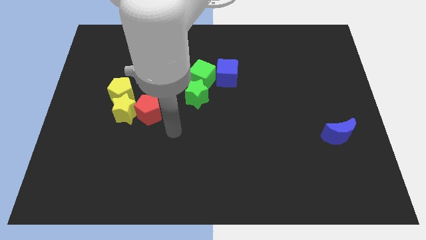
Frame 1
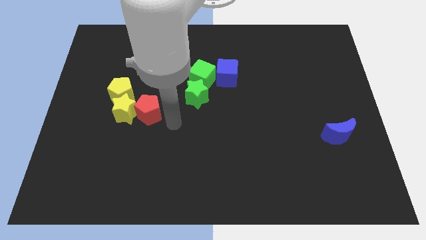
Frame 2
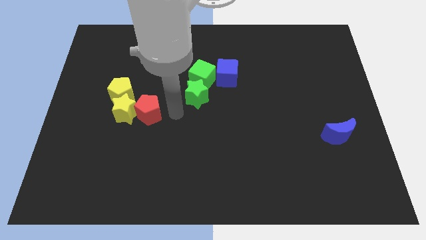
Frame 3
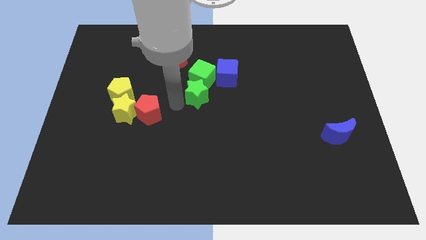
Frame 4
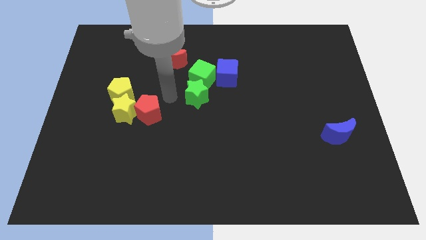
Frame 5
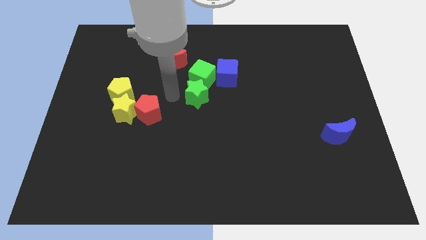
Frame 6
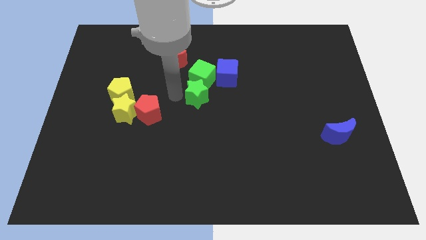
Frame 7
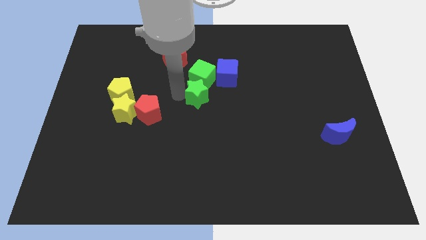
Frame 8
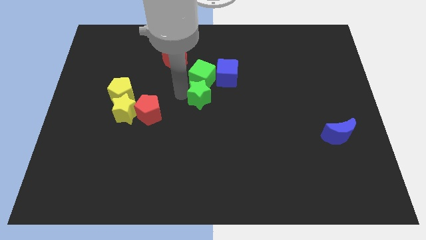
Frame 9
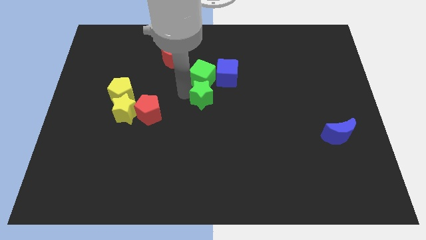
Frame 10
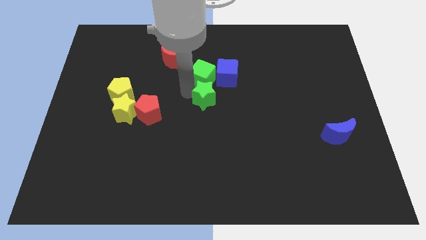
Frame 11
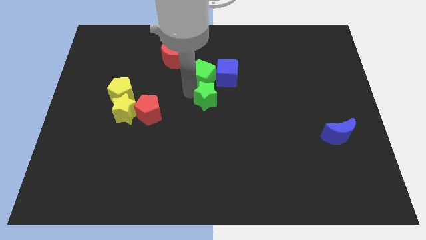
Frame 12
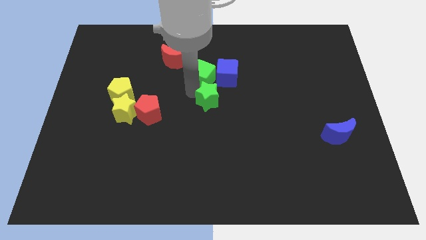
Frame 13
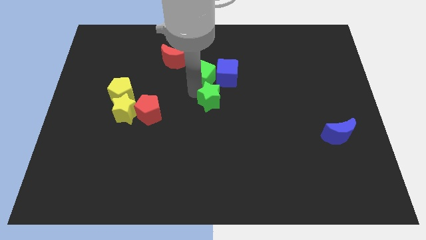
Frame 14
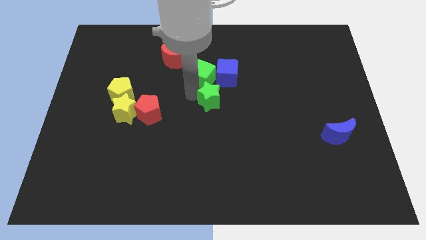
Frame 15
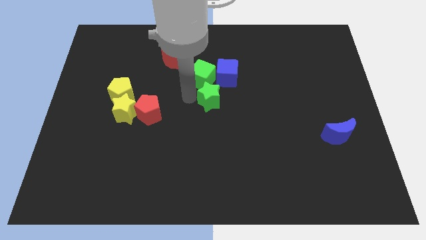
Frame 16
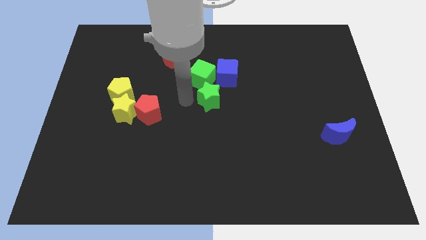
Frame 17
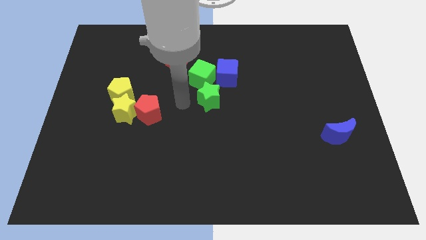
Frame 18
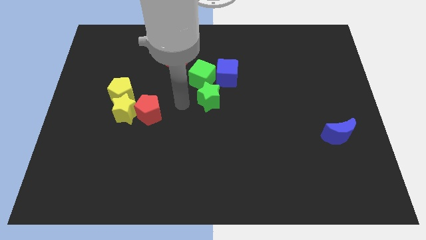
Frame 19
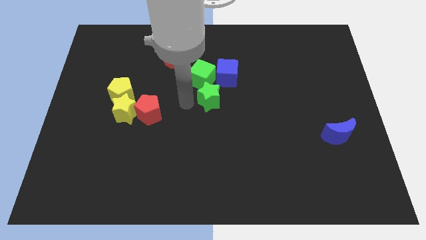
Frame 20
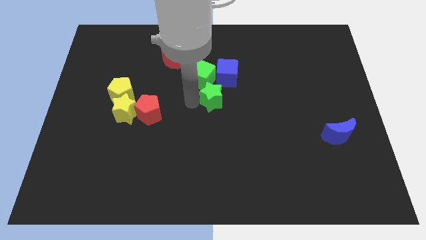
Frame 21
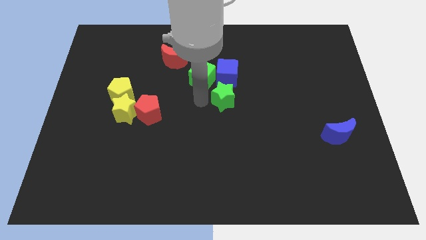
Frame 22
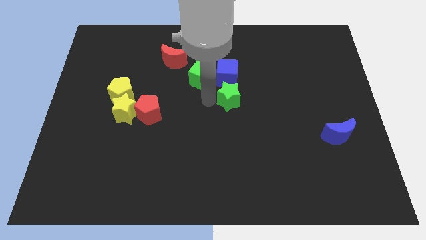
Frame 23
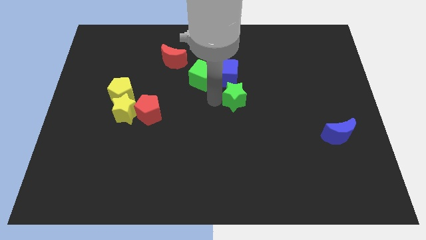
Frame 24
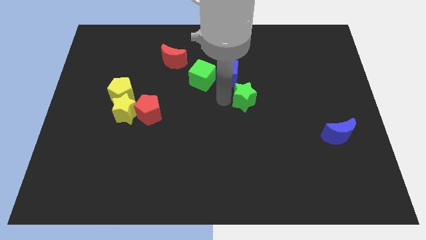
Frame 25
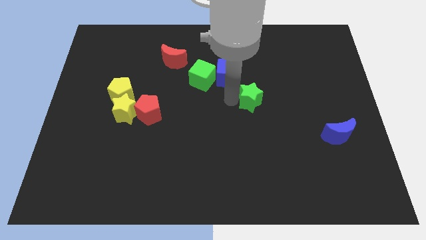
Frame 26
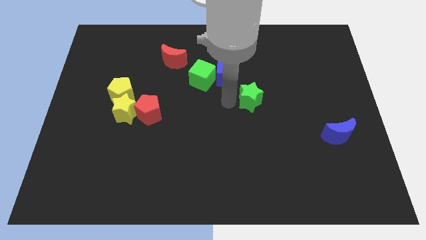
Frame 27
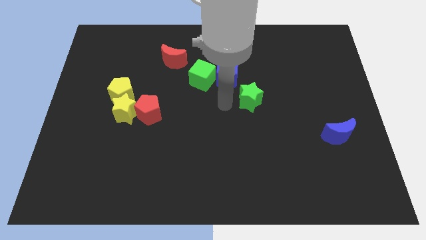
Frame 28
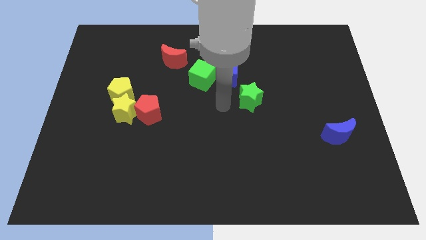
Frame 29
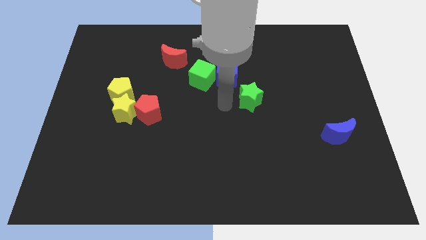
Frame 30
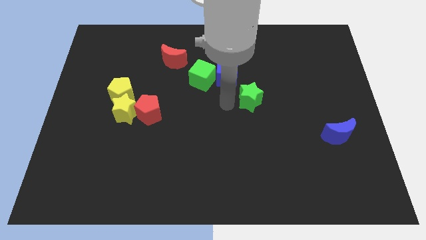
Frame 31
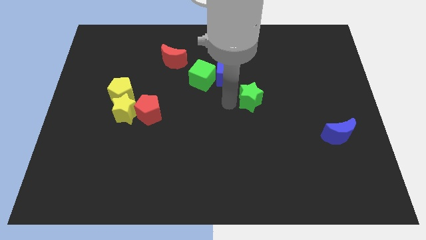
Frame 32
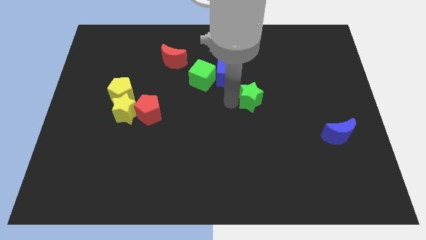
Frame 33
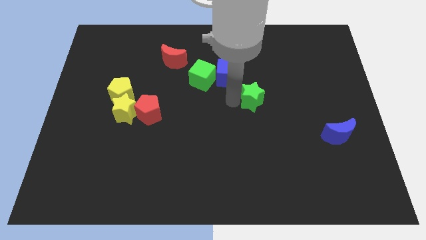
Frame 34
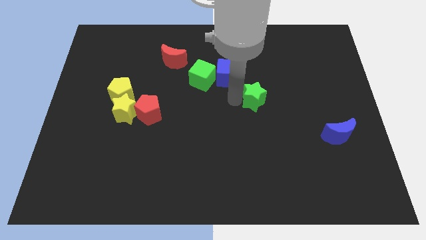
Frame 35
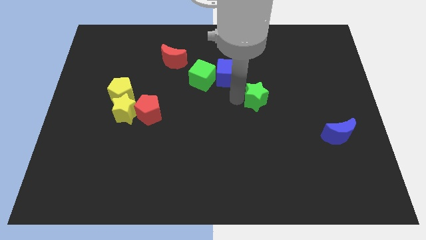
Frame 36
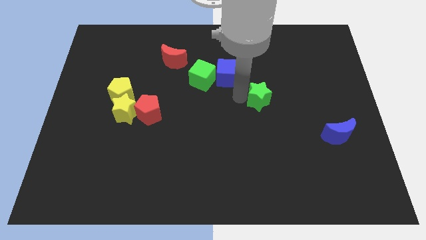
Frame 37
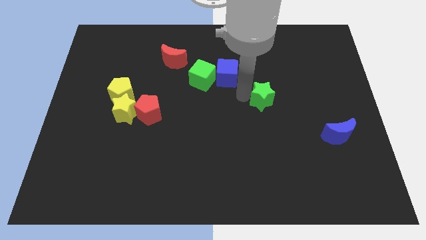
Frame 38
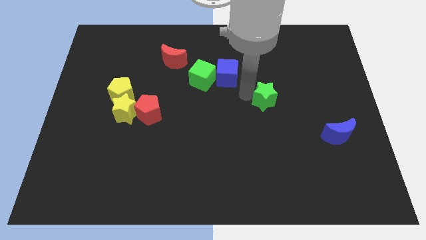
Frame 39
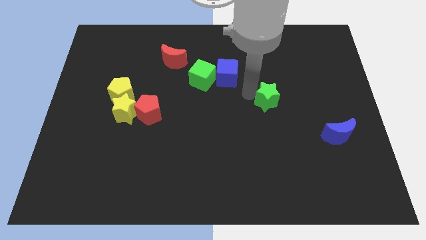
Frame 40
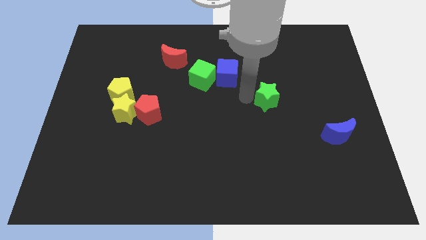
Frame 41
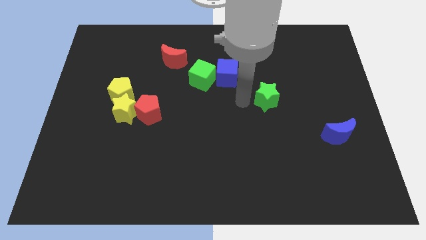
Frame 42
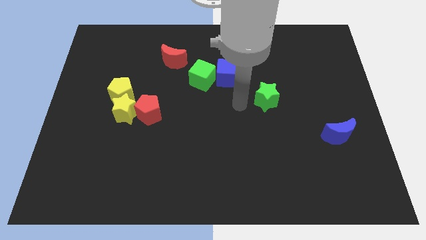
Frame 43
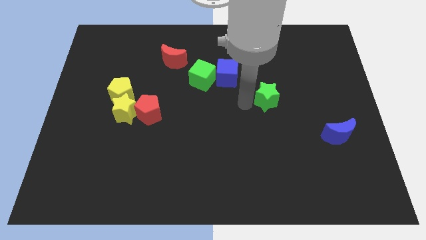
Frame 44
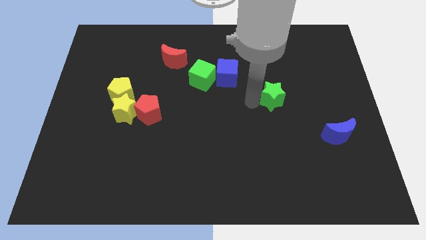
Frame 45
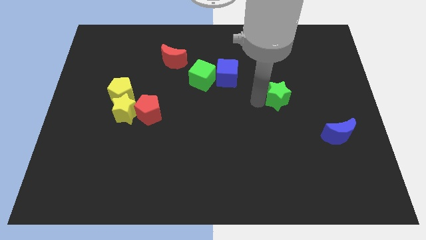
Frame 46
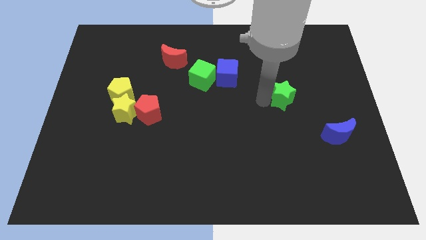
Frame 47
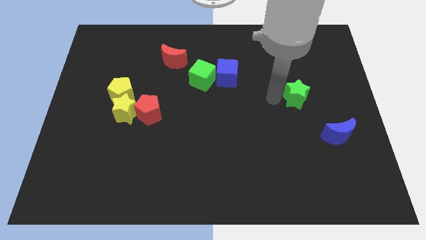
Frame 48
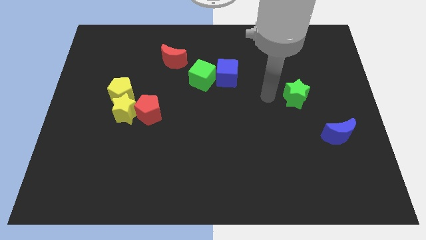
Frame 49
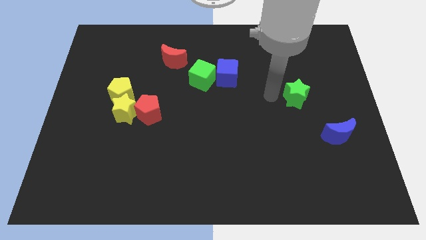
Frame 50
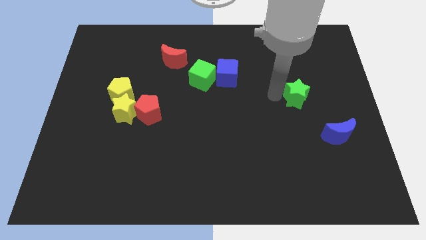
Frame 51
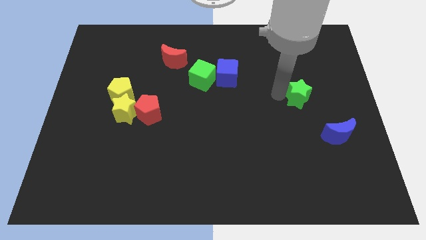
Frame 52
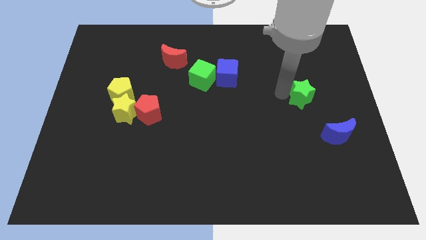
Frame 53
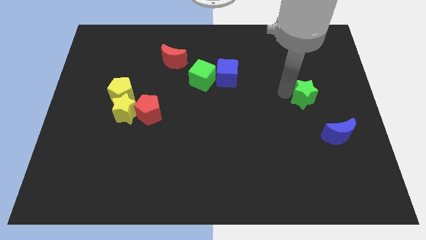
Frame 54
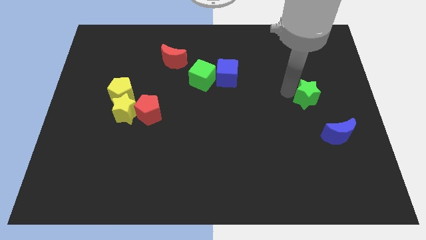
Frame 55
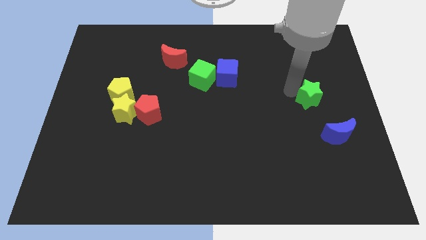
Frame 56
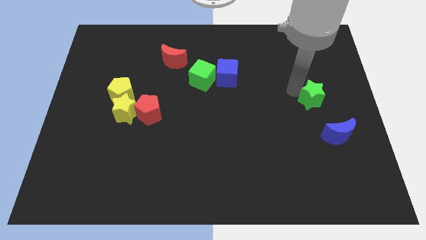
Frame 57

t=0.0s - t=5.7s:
move the green star to the top side of the blue moon

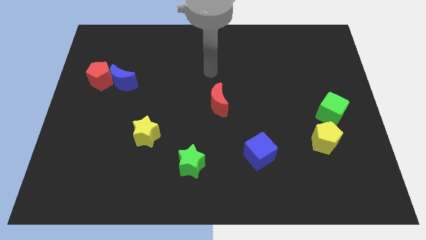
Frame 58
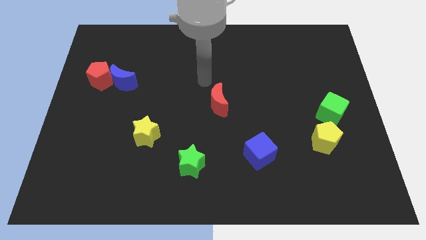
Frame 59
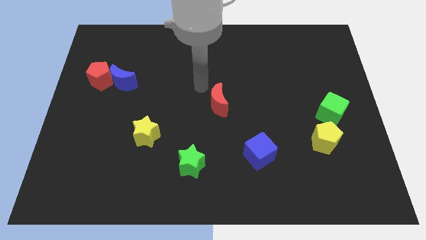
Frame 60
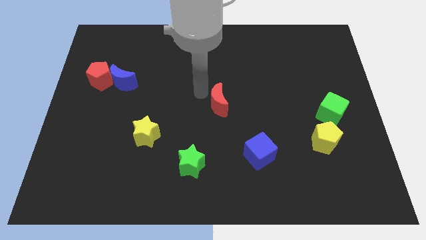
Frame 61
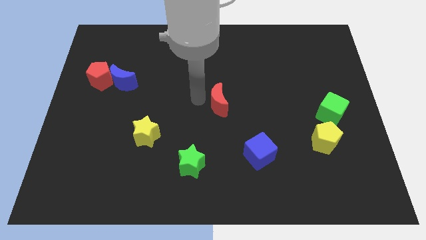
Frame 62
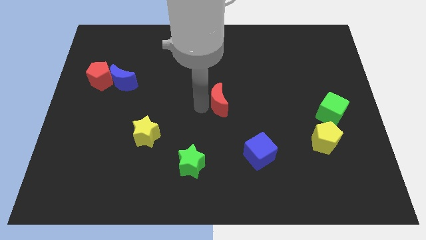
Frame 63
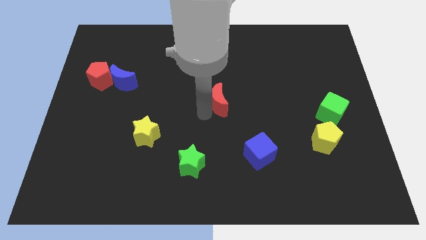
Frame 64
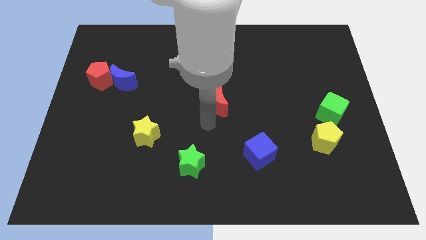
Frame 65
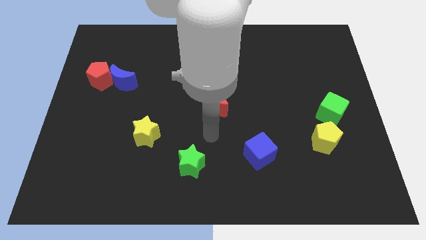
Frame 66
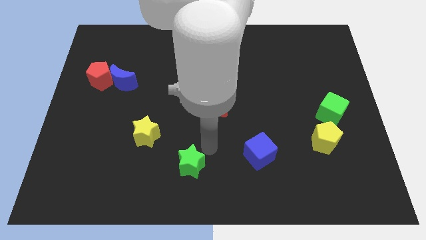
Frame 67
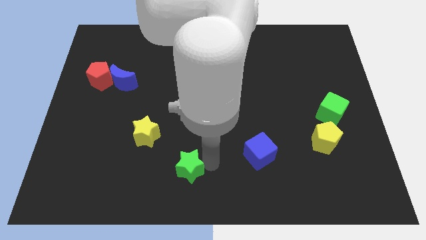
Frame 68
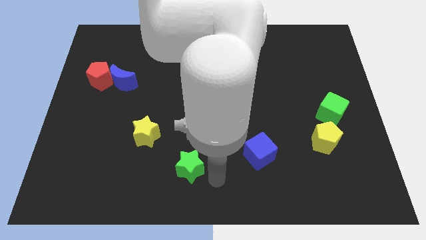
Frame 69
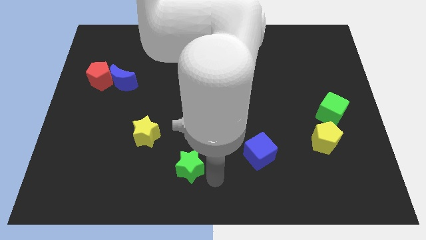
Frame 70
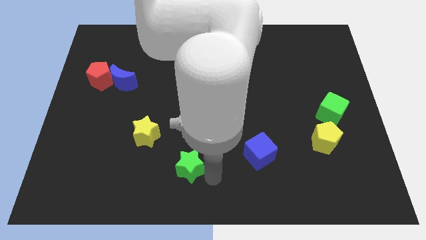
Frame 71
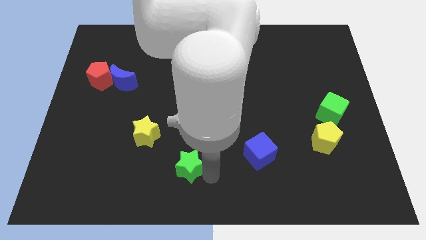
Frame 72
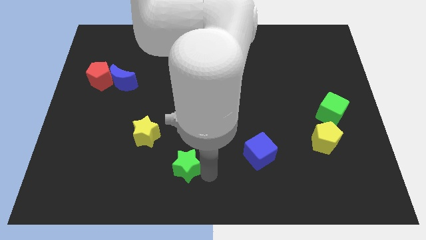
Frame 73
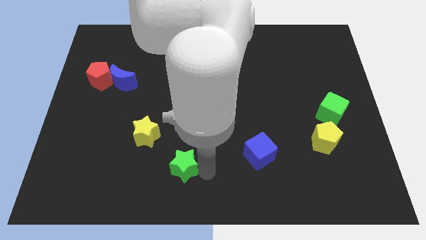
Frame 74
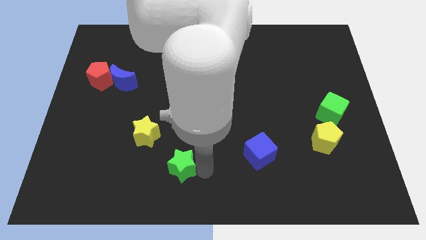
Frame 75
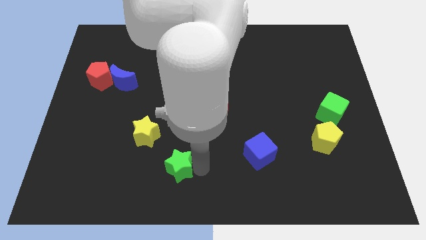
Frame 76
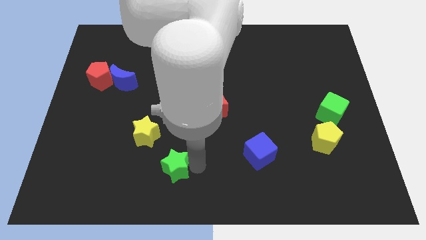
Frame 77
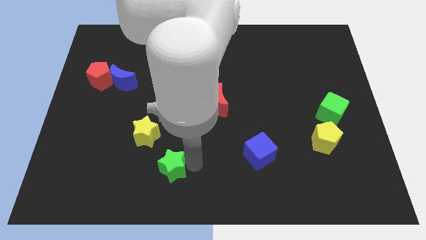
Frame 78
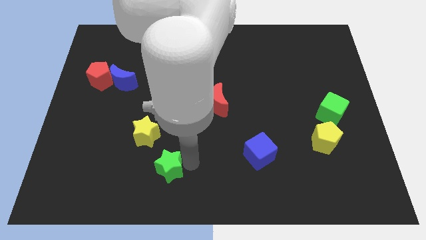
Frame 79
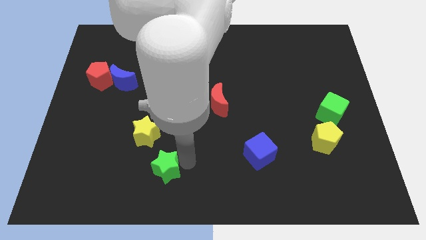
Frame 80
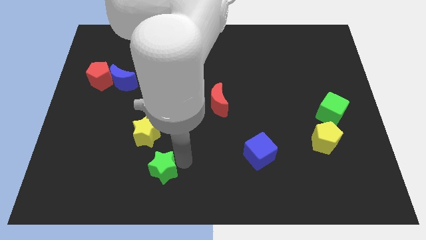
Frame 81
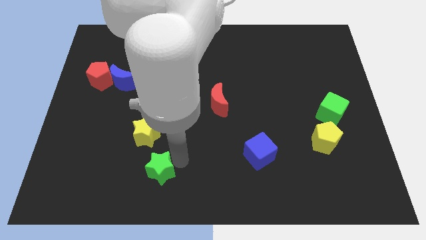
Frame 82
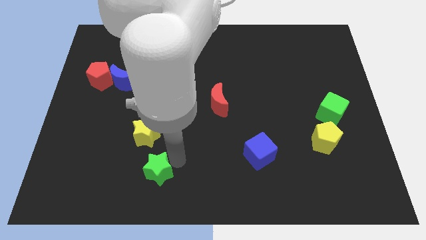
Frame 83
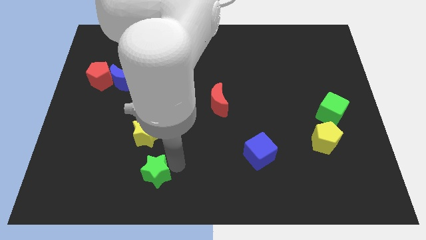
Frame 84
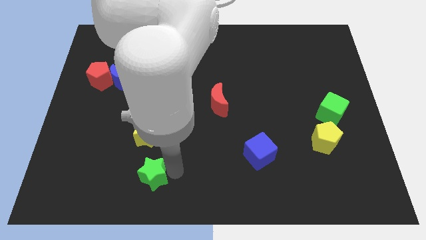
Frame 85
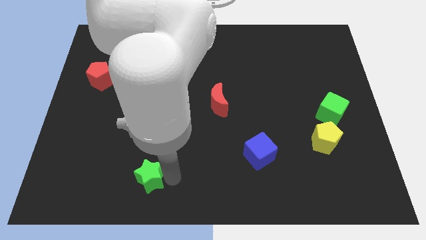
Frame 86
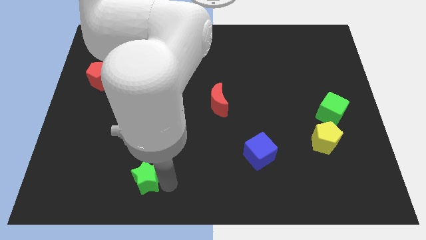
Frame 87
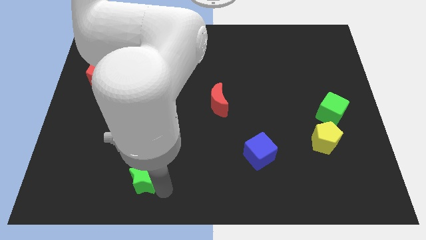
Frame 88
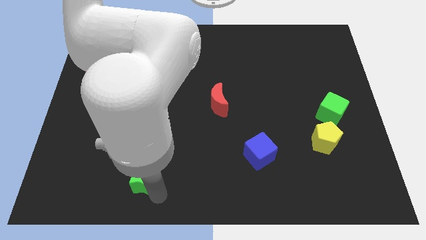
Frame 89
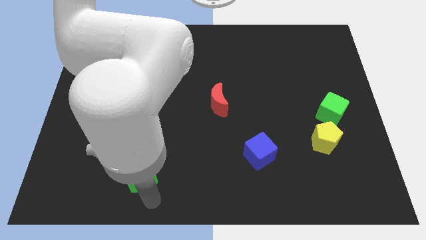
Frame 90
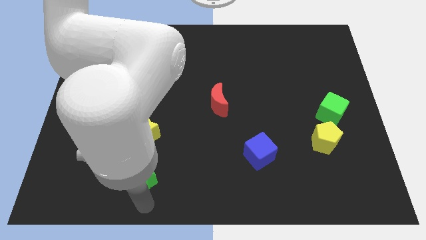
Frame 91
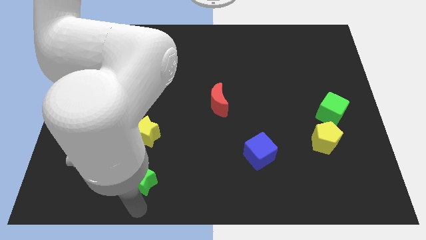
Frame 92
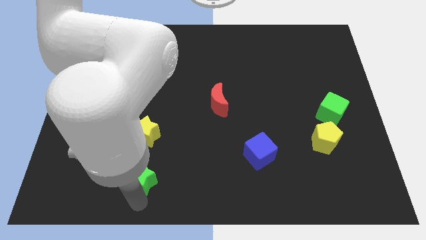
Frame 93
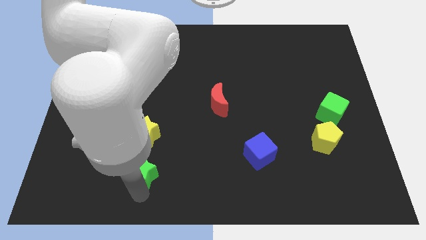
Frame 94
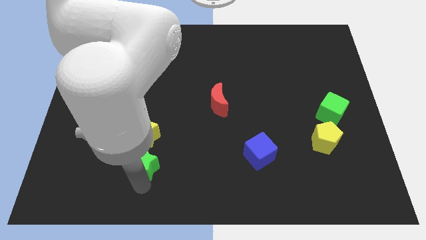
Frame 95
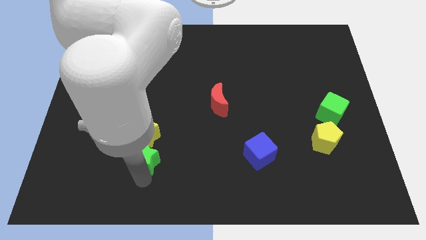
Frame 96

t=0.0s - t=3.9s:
put the green star to the bottom left of the yellow star
